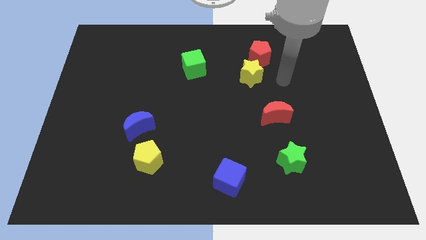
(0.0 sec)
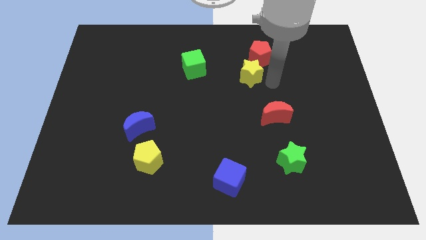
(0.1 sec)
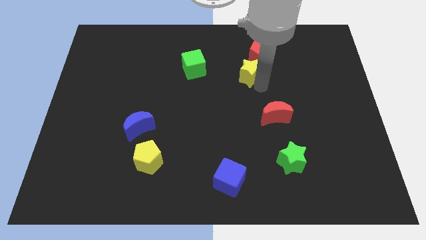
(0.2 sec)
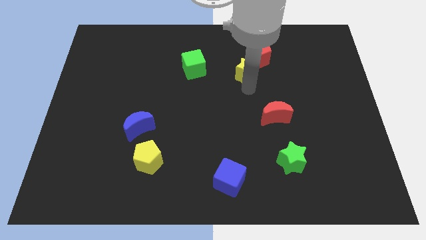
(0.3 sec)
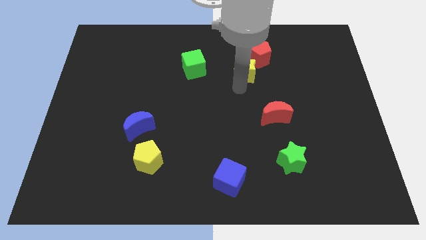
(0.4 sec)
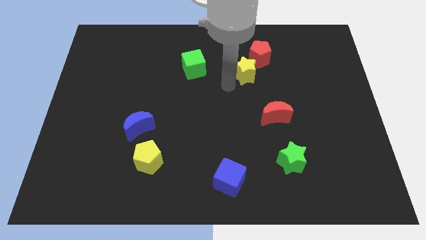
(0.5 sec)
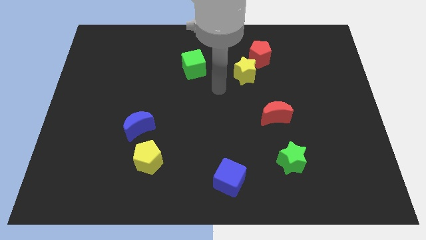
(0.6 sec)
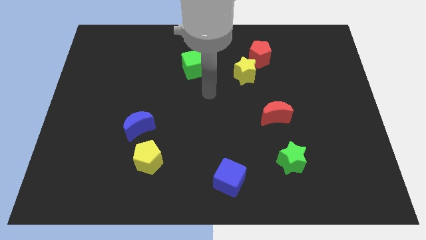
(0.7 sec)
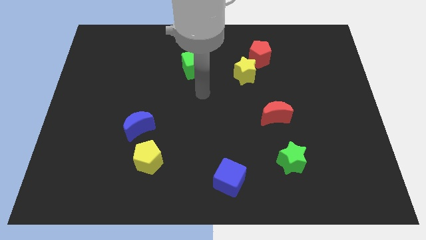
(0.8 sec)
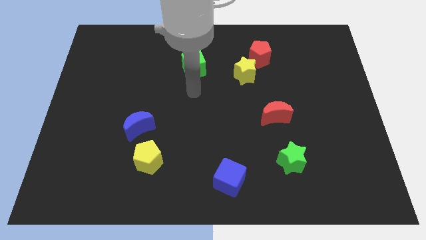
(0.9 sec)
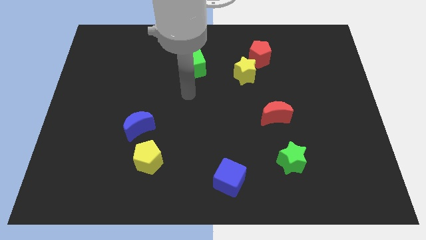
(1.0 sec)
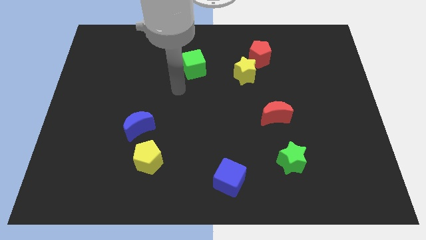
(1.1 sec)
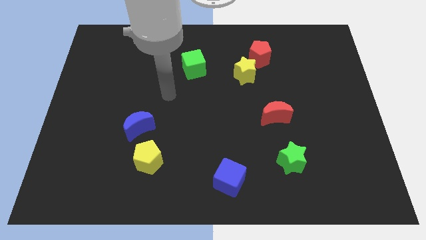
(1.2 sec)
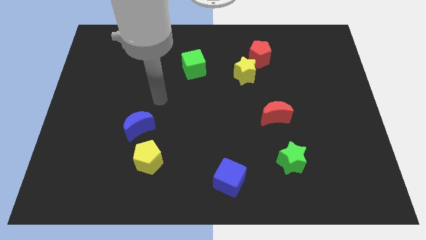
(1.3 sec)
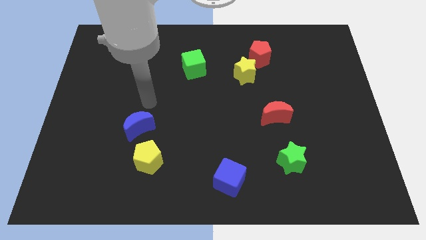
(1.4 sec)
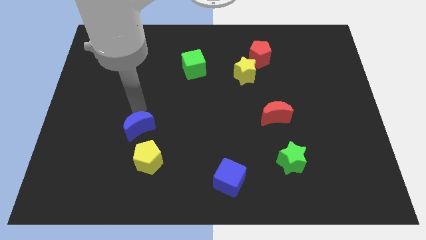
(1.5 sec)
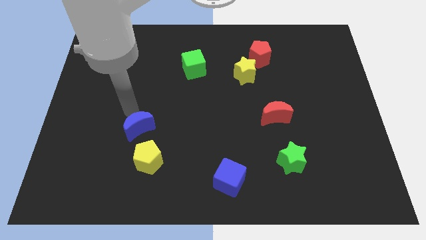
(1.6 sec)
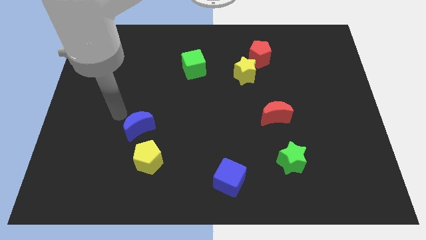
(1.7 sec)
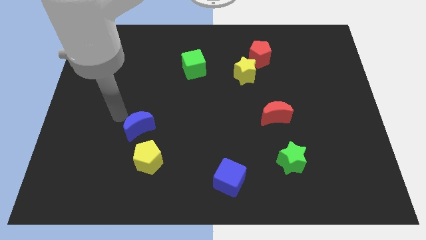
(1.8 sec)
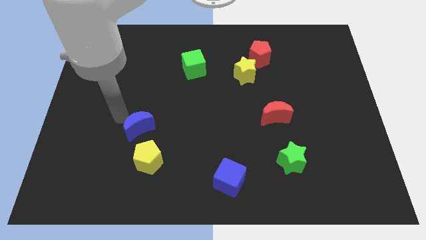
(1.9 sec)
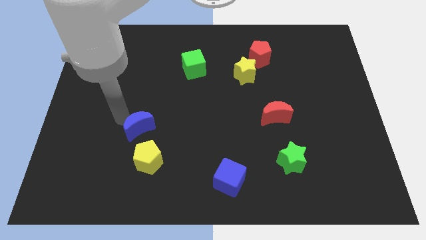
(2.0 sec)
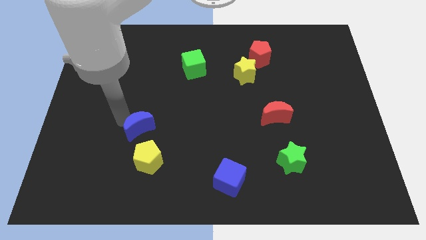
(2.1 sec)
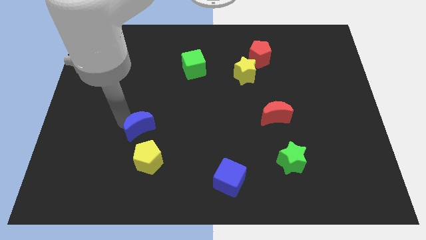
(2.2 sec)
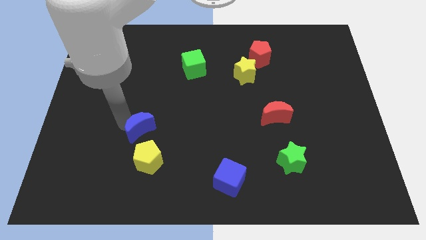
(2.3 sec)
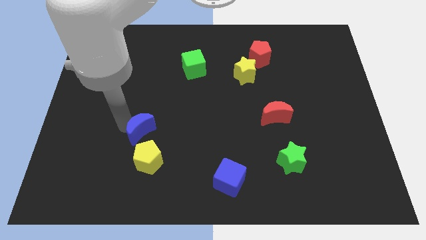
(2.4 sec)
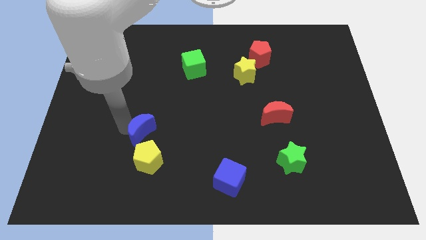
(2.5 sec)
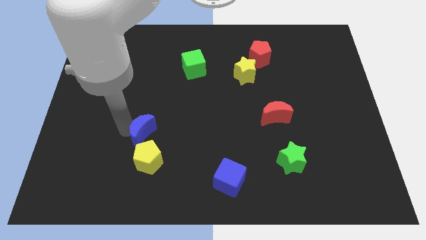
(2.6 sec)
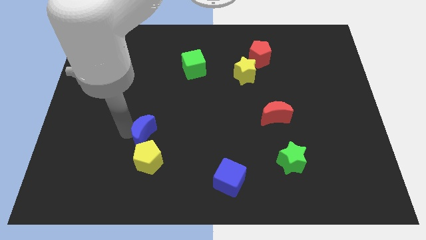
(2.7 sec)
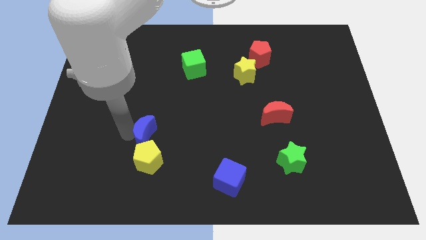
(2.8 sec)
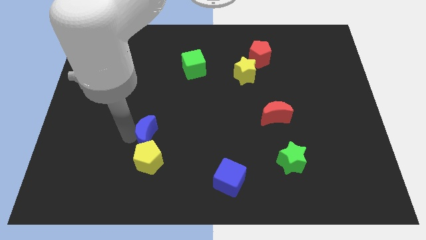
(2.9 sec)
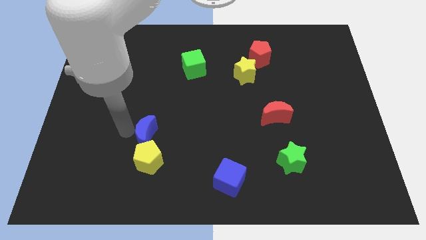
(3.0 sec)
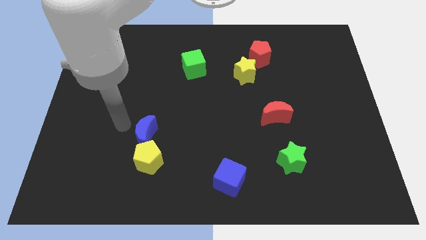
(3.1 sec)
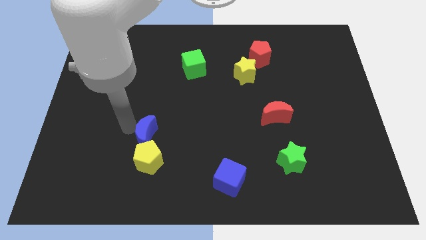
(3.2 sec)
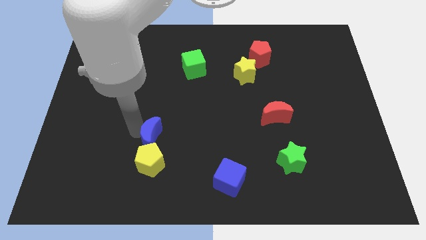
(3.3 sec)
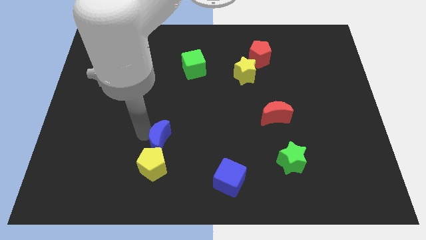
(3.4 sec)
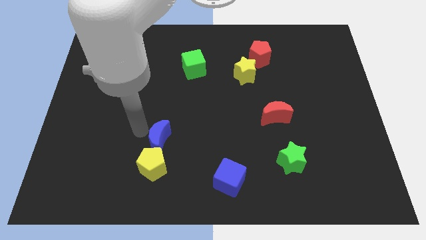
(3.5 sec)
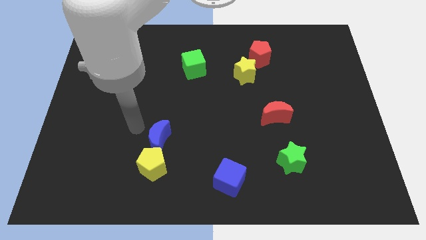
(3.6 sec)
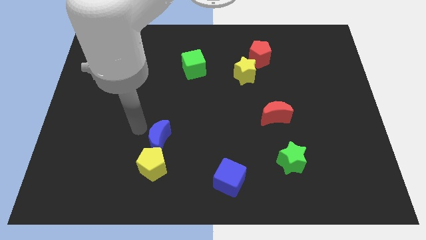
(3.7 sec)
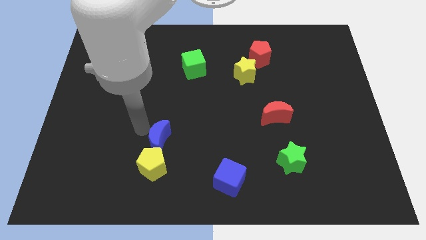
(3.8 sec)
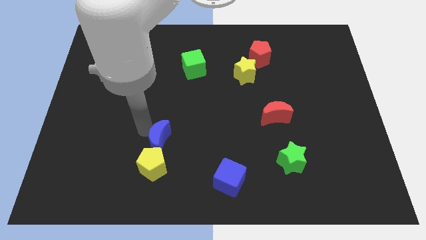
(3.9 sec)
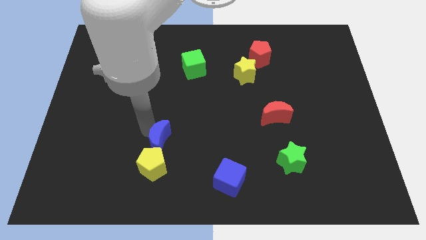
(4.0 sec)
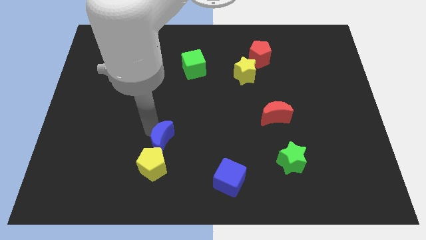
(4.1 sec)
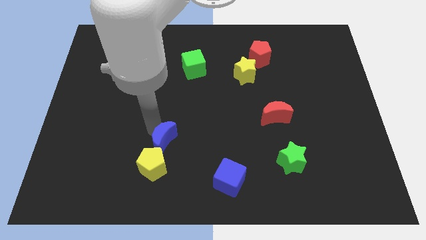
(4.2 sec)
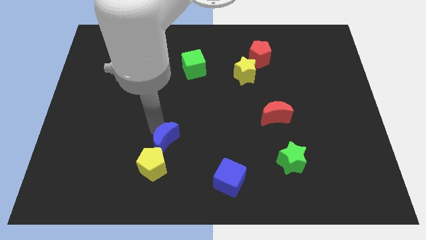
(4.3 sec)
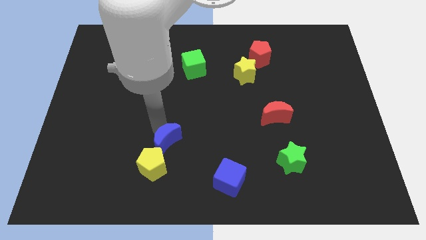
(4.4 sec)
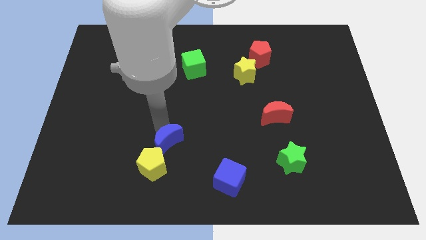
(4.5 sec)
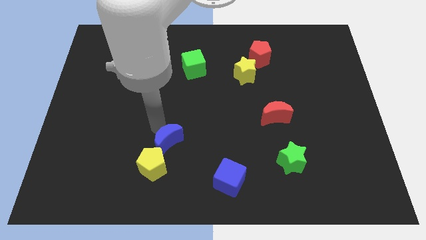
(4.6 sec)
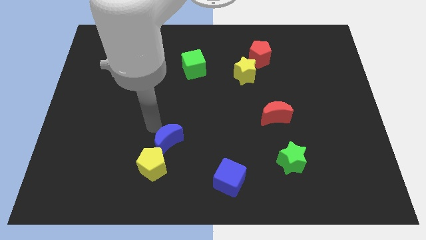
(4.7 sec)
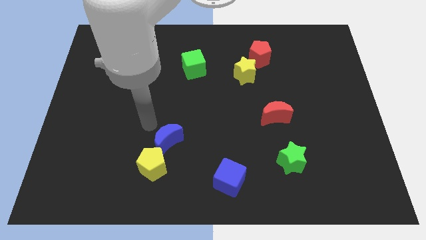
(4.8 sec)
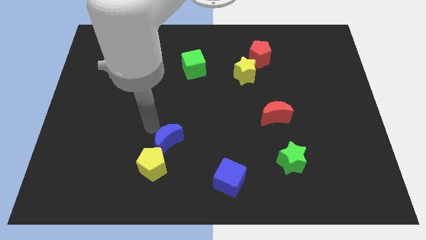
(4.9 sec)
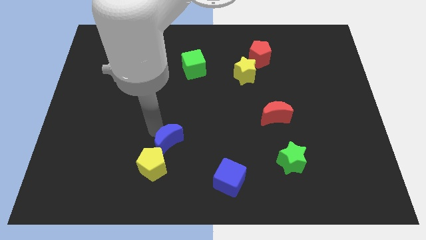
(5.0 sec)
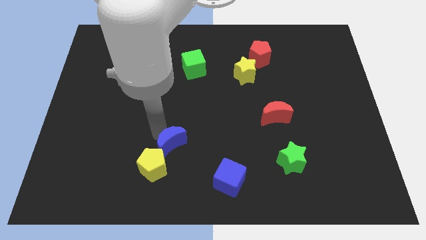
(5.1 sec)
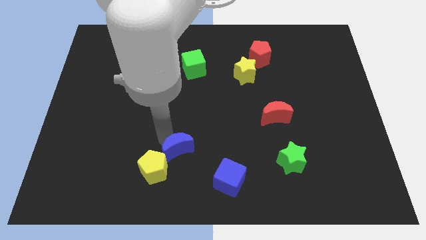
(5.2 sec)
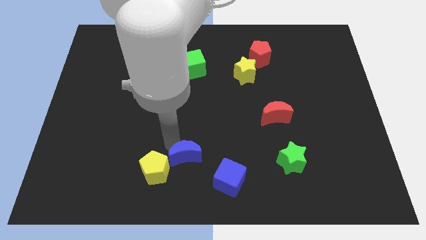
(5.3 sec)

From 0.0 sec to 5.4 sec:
push the blue moon to the right of the yellow pentagon

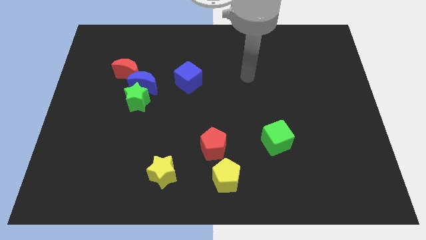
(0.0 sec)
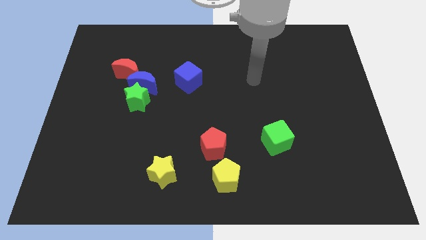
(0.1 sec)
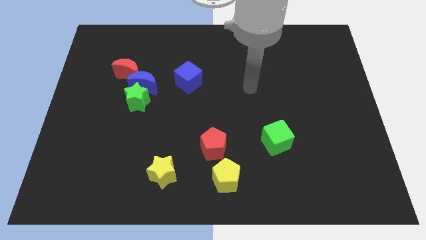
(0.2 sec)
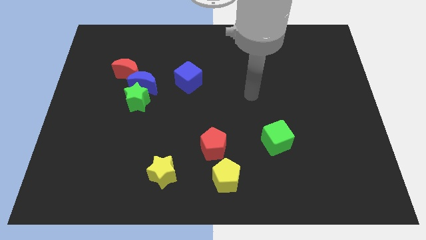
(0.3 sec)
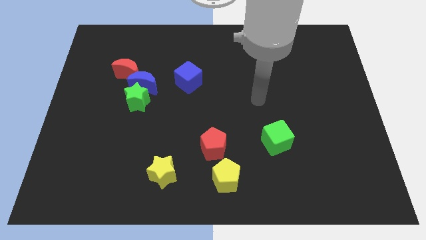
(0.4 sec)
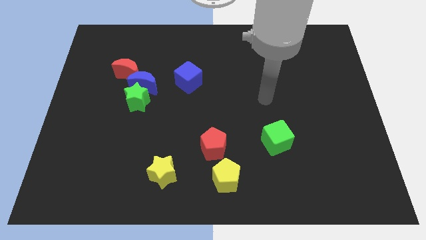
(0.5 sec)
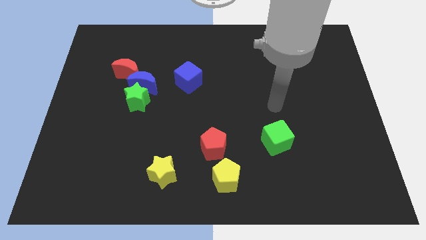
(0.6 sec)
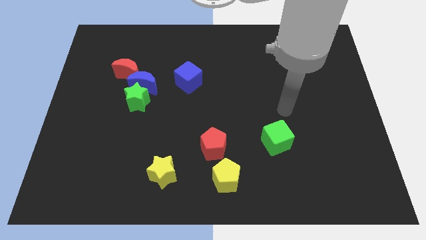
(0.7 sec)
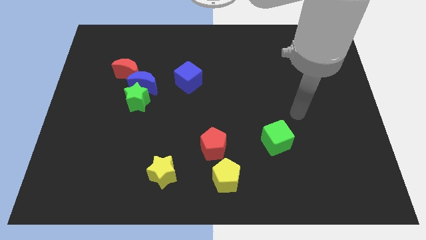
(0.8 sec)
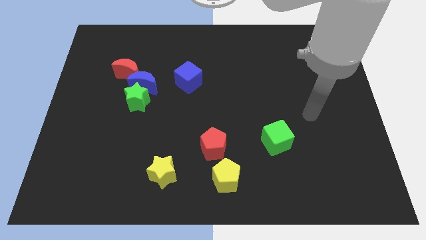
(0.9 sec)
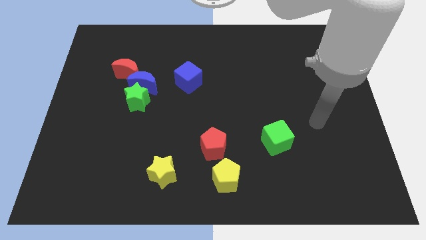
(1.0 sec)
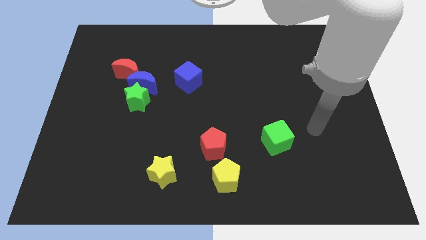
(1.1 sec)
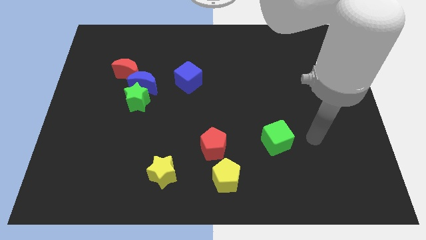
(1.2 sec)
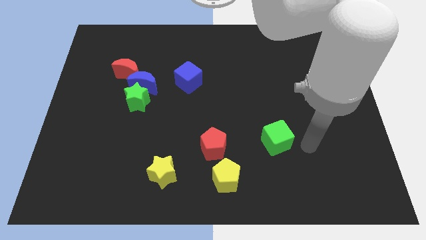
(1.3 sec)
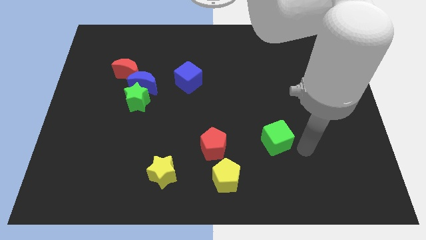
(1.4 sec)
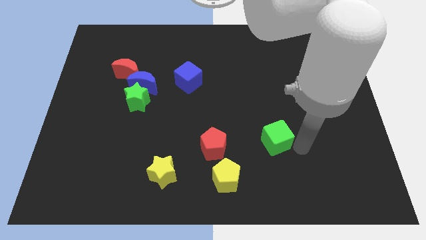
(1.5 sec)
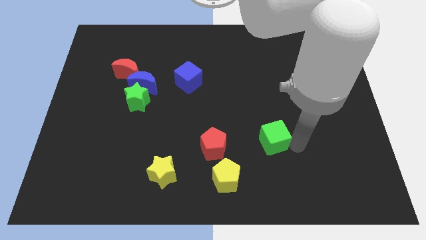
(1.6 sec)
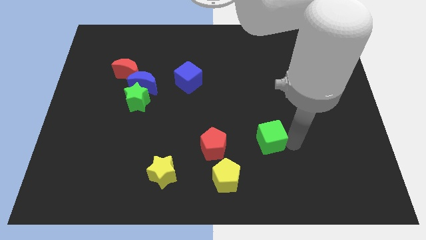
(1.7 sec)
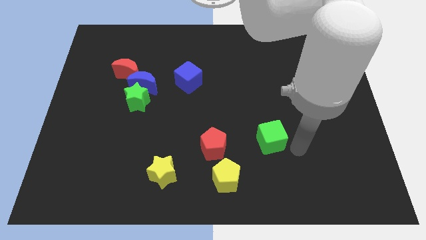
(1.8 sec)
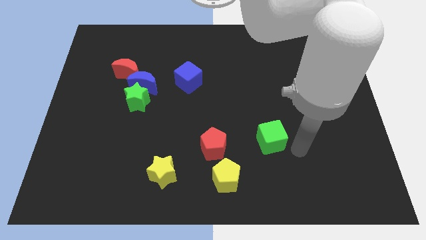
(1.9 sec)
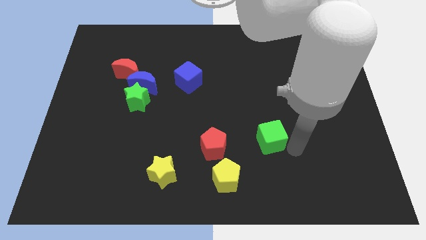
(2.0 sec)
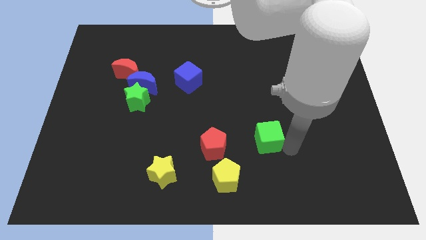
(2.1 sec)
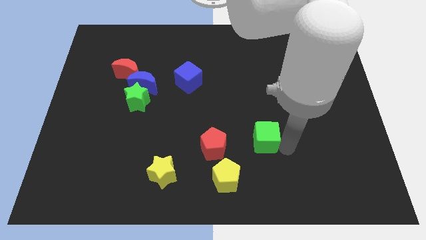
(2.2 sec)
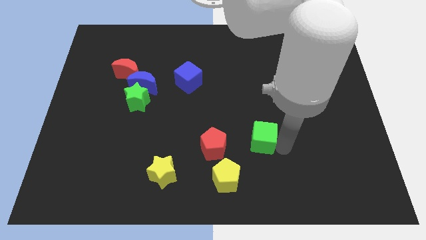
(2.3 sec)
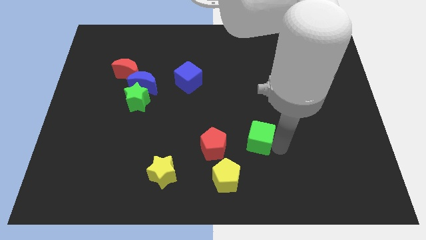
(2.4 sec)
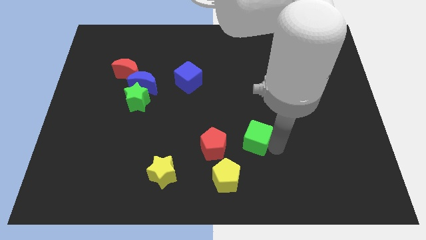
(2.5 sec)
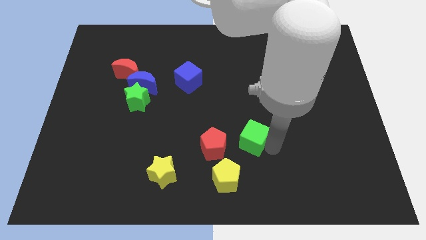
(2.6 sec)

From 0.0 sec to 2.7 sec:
put the green cube to the top right of the red pentagon
